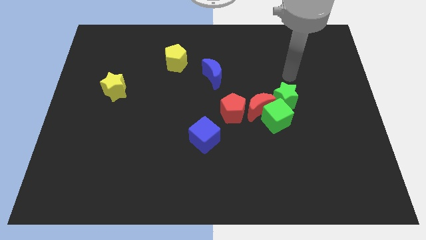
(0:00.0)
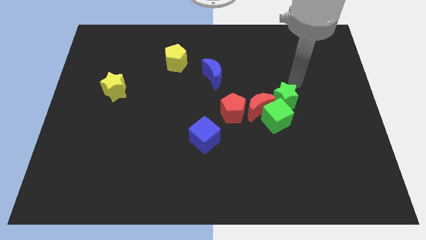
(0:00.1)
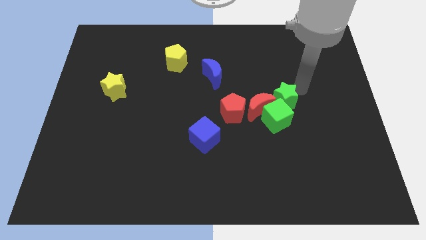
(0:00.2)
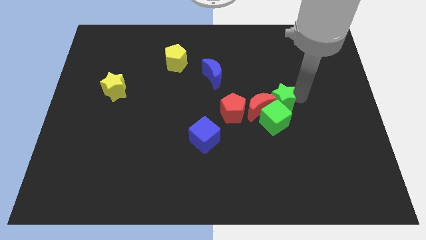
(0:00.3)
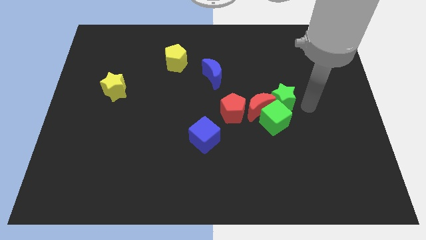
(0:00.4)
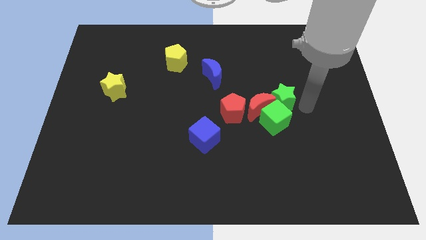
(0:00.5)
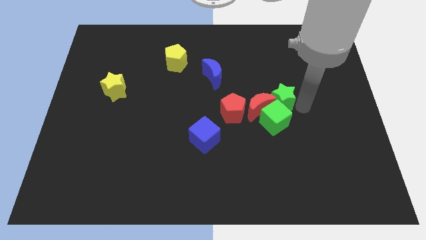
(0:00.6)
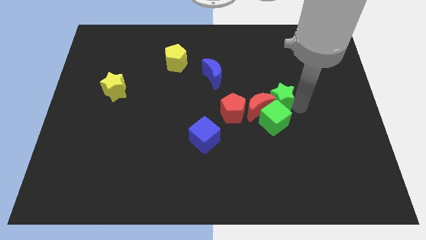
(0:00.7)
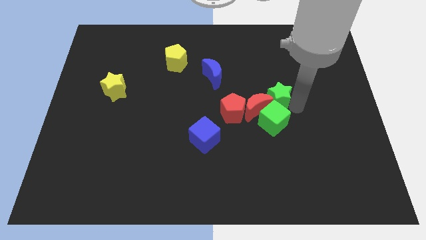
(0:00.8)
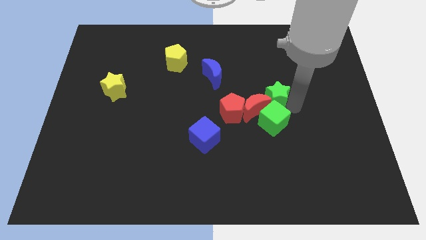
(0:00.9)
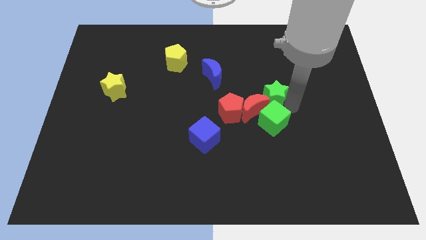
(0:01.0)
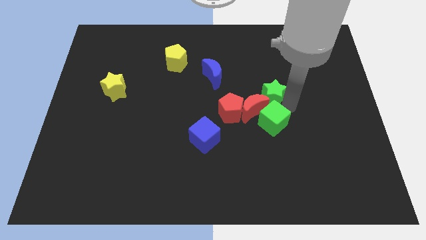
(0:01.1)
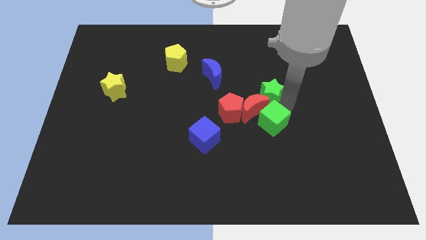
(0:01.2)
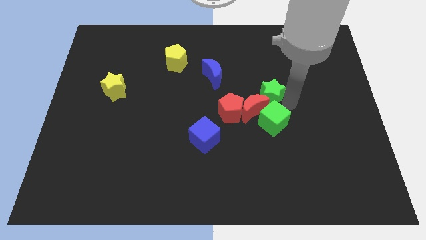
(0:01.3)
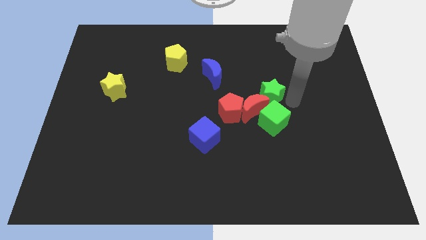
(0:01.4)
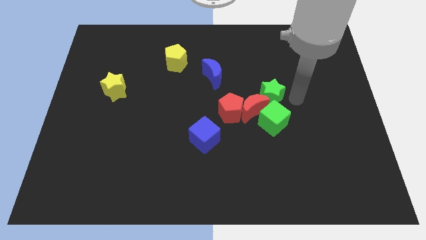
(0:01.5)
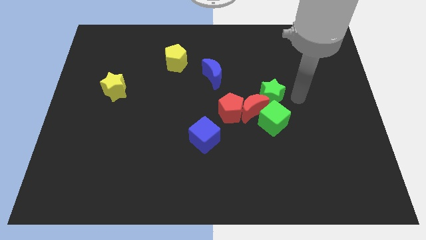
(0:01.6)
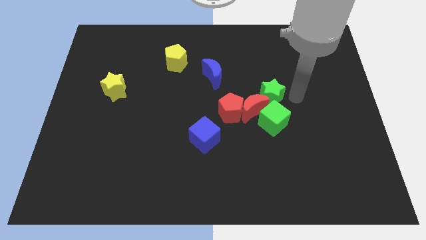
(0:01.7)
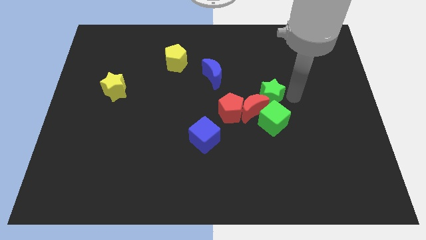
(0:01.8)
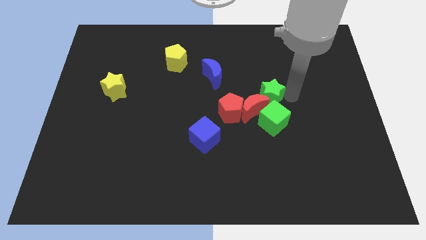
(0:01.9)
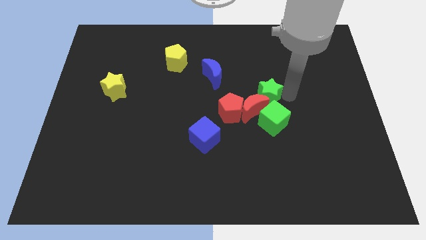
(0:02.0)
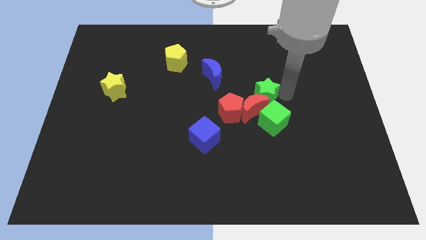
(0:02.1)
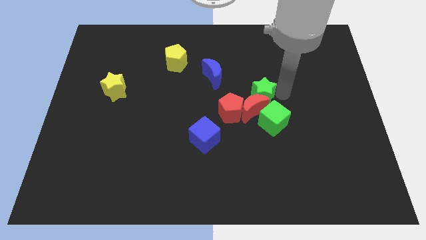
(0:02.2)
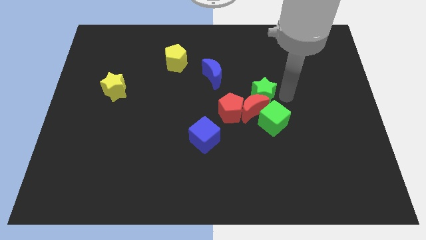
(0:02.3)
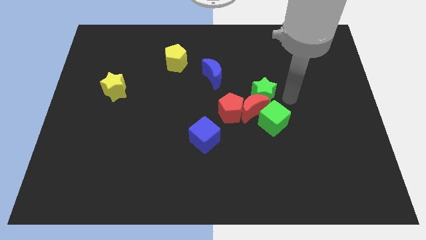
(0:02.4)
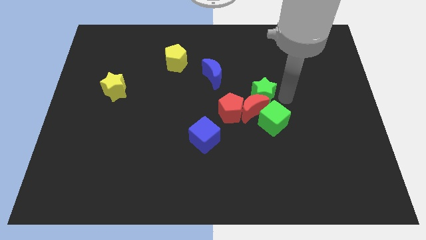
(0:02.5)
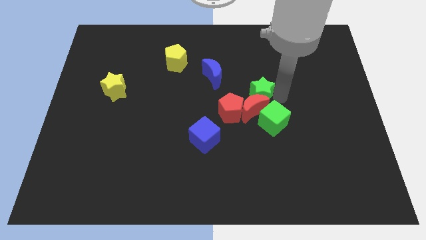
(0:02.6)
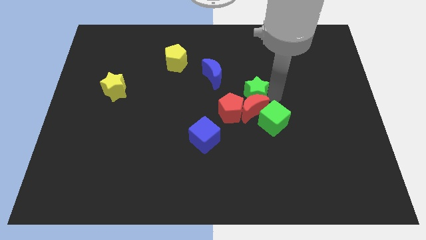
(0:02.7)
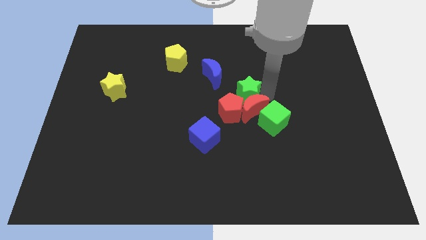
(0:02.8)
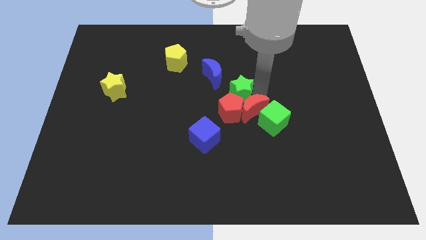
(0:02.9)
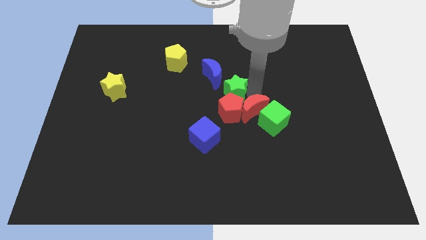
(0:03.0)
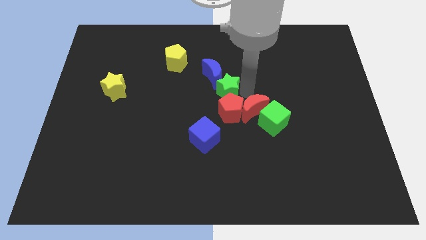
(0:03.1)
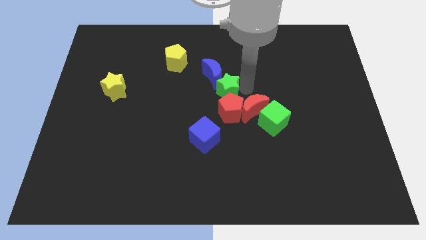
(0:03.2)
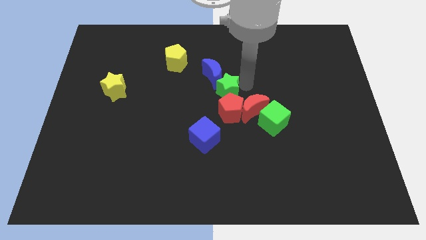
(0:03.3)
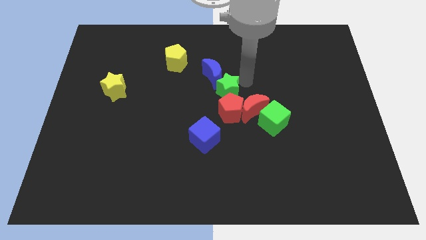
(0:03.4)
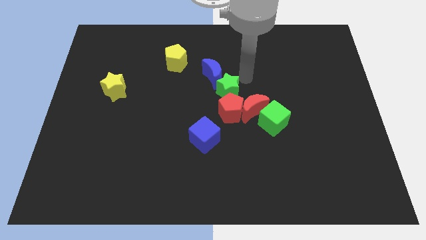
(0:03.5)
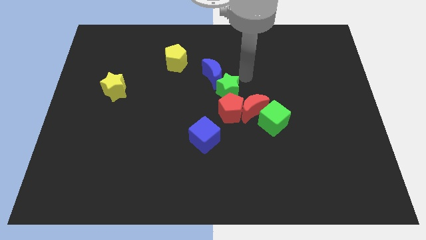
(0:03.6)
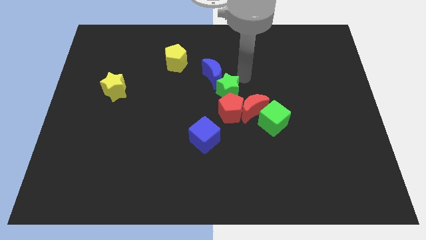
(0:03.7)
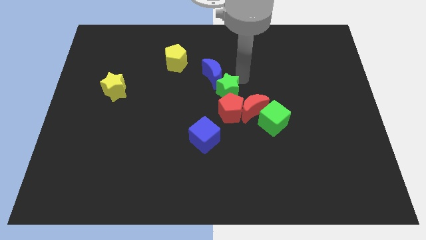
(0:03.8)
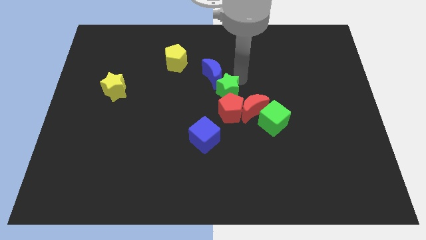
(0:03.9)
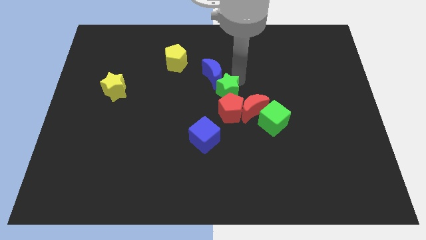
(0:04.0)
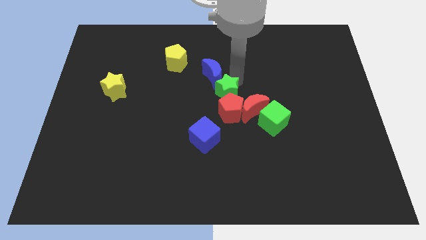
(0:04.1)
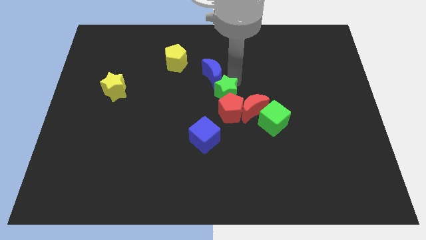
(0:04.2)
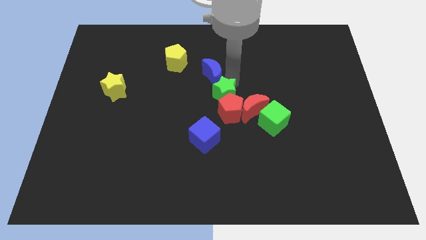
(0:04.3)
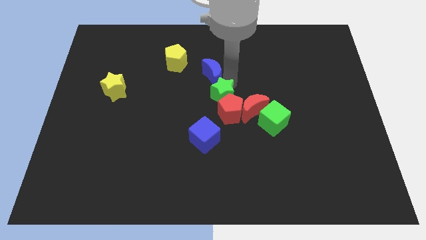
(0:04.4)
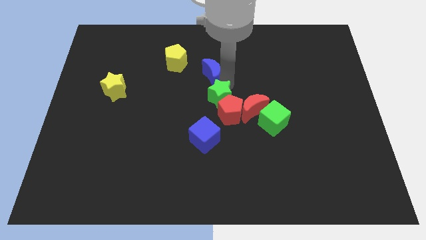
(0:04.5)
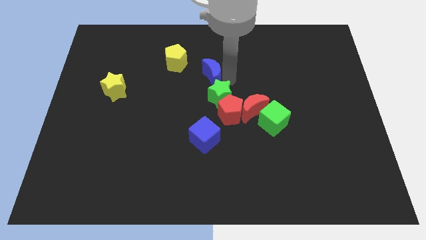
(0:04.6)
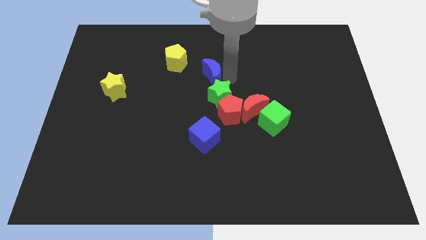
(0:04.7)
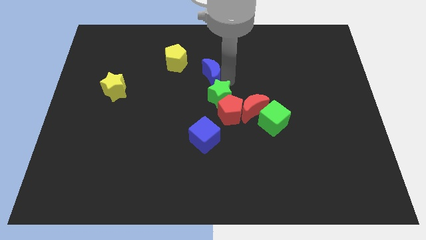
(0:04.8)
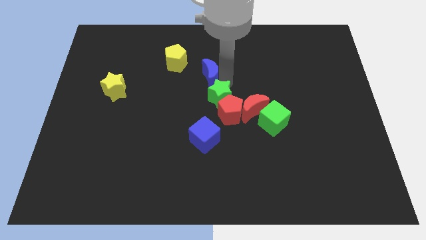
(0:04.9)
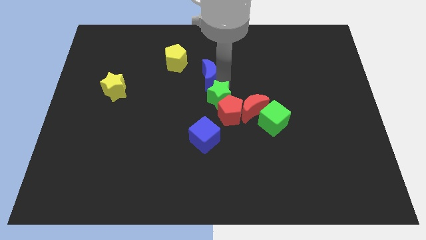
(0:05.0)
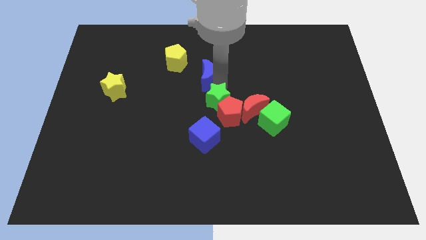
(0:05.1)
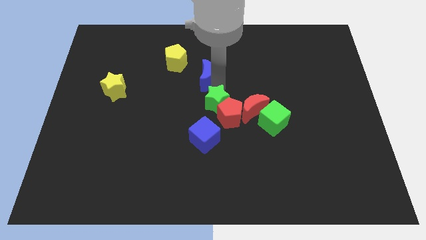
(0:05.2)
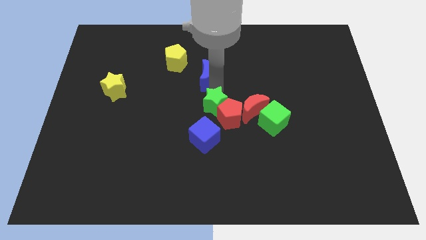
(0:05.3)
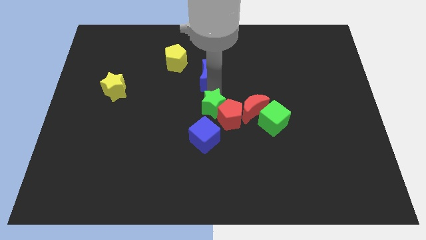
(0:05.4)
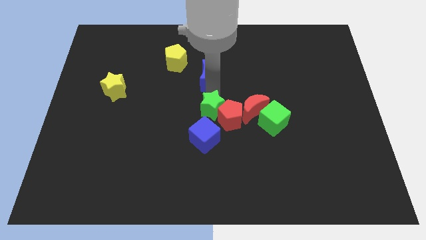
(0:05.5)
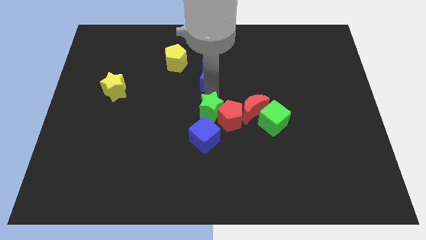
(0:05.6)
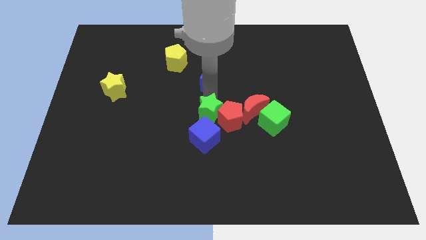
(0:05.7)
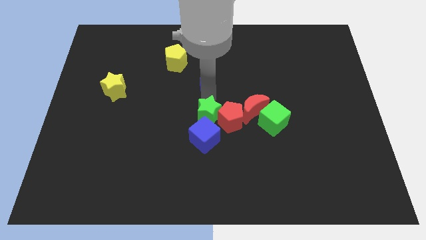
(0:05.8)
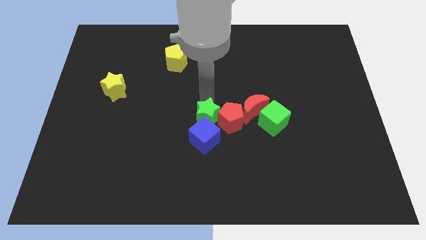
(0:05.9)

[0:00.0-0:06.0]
put the green star close to the blue cube

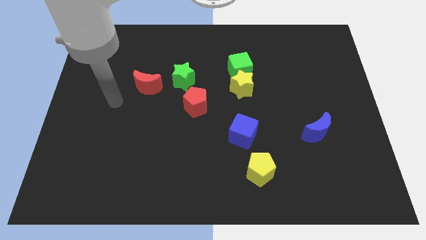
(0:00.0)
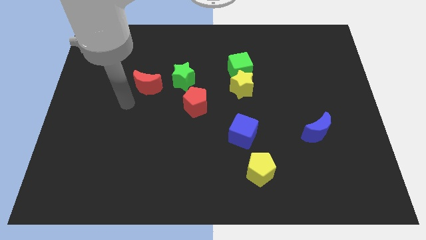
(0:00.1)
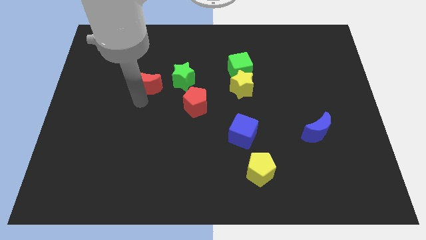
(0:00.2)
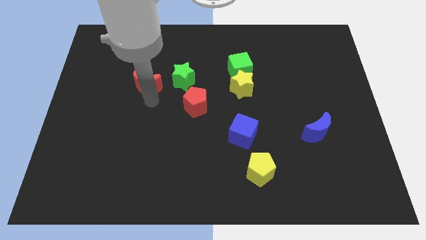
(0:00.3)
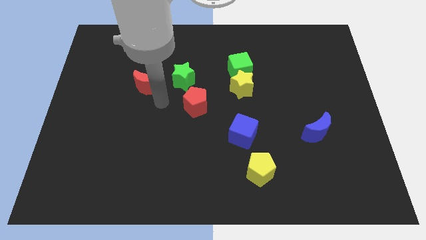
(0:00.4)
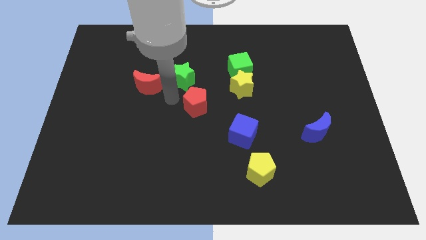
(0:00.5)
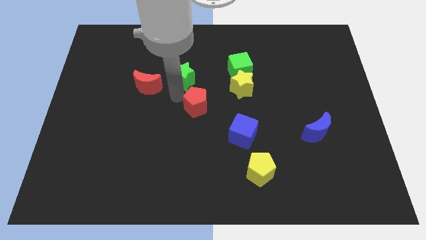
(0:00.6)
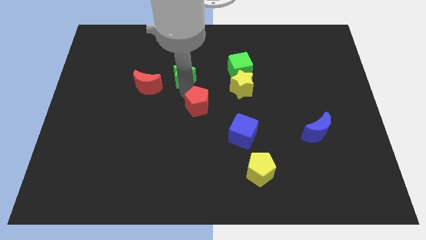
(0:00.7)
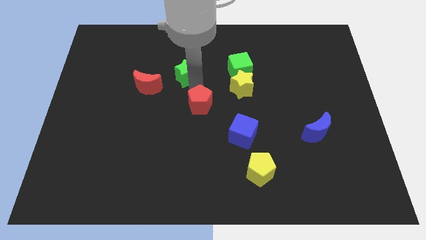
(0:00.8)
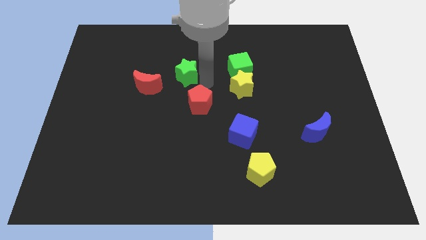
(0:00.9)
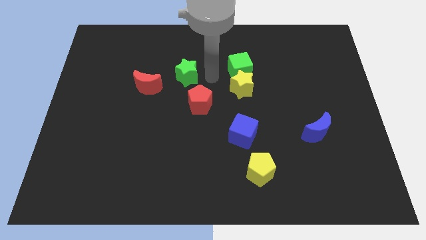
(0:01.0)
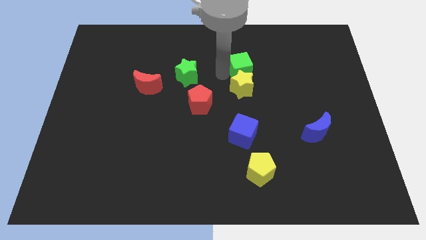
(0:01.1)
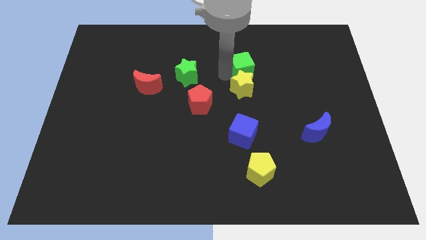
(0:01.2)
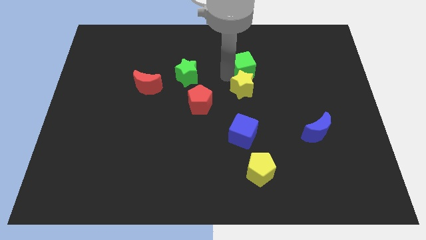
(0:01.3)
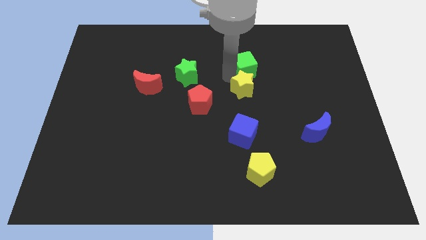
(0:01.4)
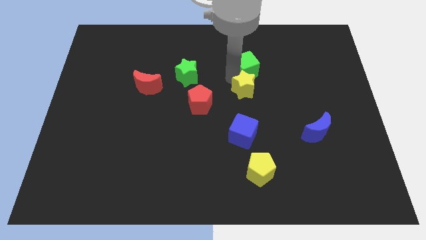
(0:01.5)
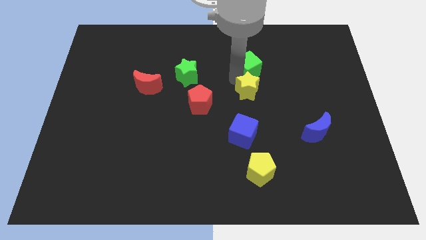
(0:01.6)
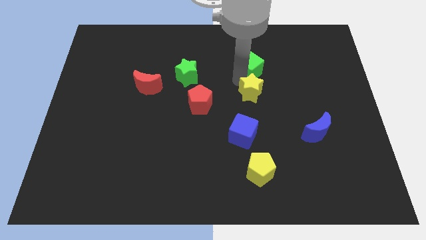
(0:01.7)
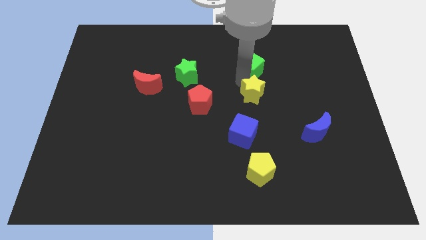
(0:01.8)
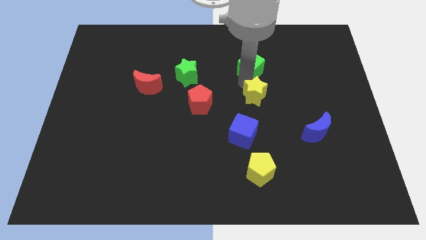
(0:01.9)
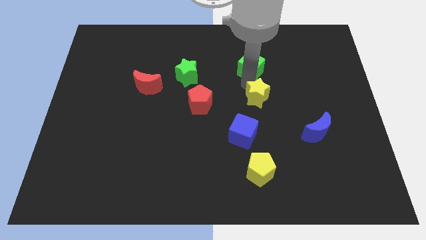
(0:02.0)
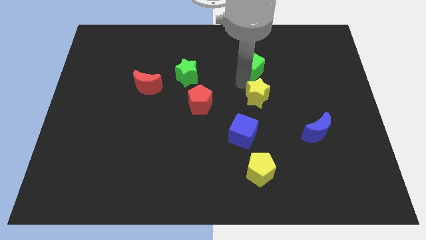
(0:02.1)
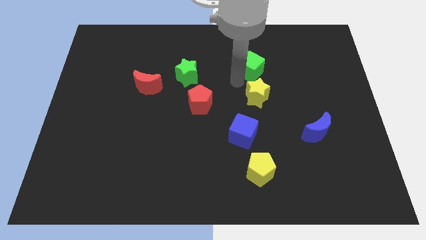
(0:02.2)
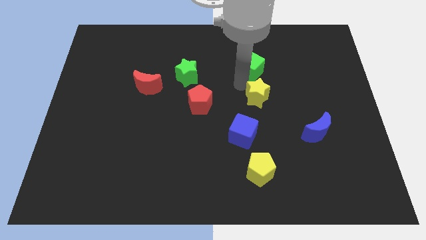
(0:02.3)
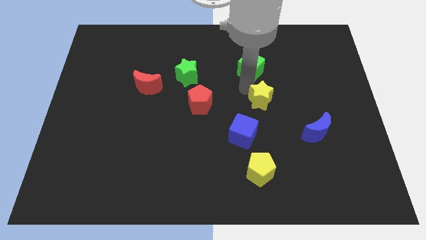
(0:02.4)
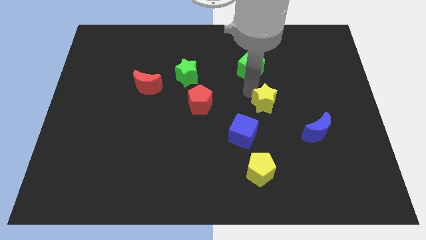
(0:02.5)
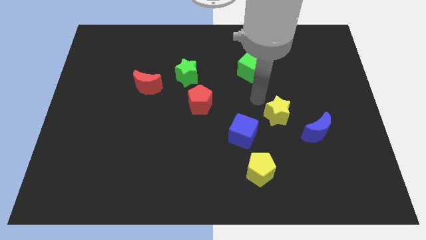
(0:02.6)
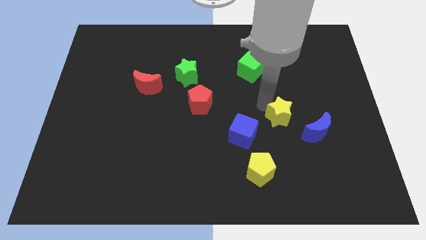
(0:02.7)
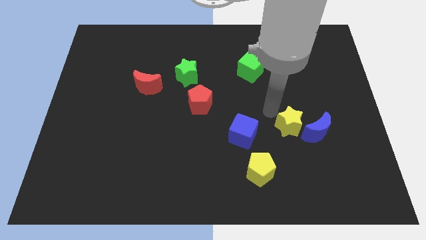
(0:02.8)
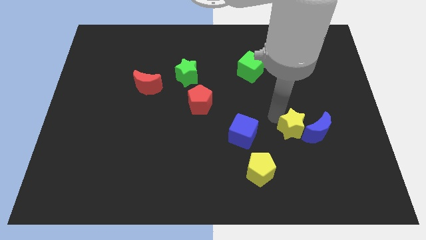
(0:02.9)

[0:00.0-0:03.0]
move the yellow star to the blue moon
